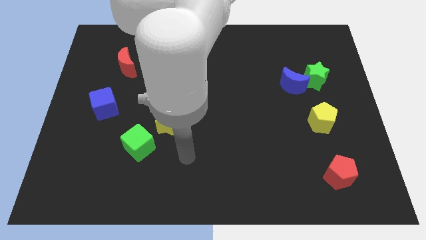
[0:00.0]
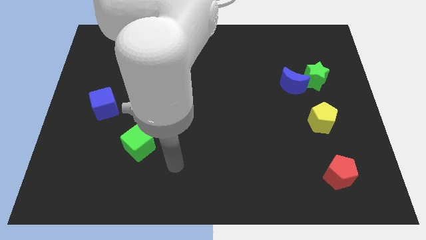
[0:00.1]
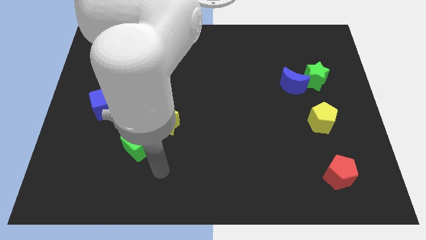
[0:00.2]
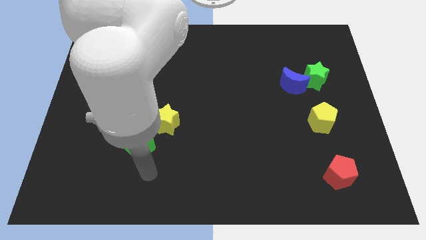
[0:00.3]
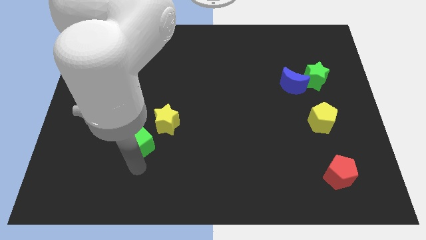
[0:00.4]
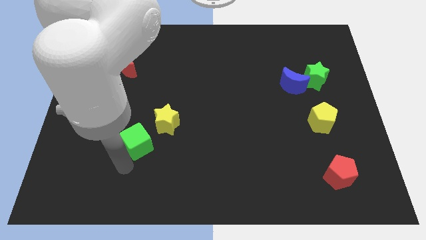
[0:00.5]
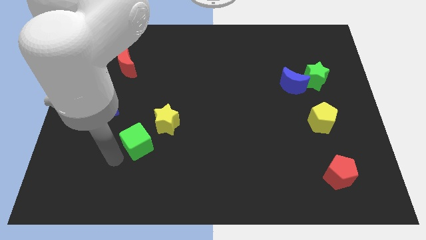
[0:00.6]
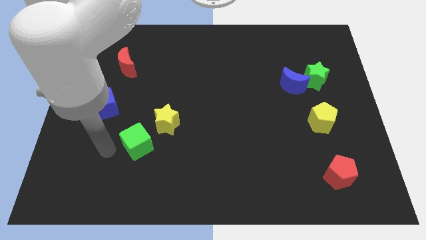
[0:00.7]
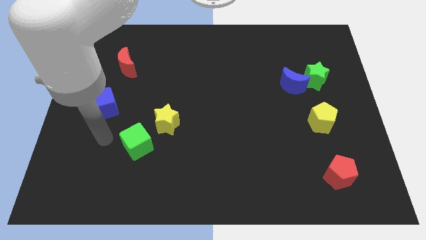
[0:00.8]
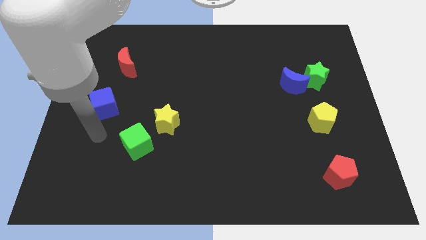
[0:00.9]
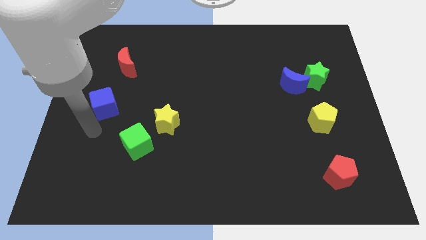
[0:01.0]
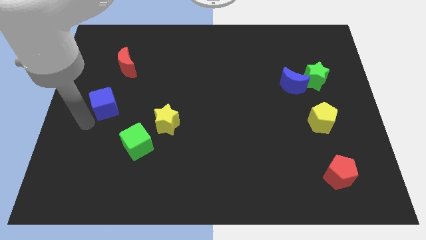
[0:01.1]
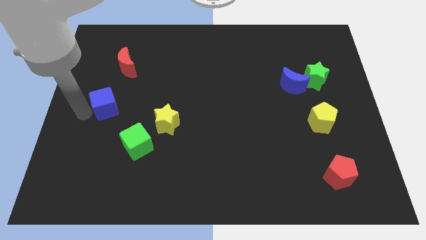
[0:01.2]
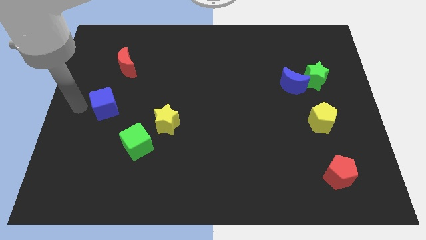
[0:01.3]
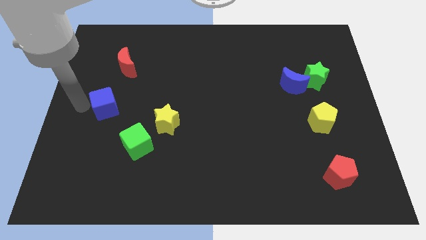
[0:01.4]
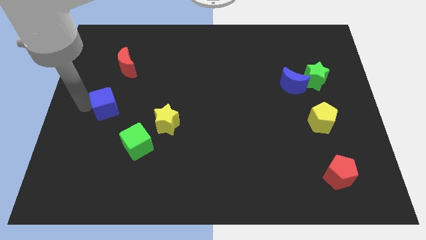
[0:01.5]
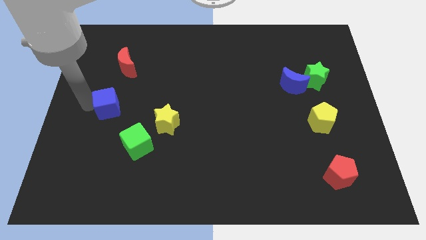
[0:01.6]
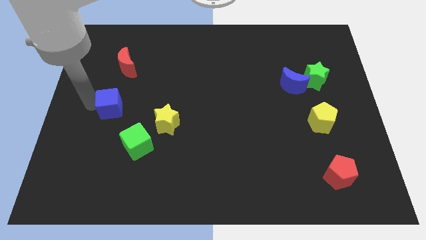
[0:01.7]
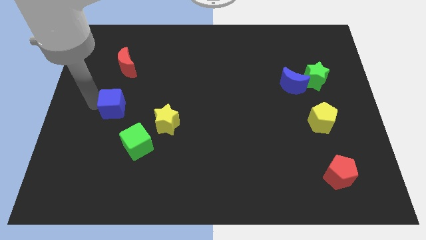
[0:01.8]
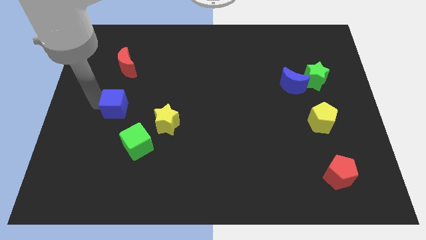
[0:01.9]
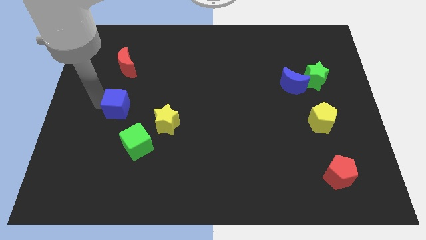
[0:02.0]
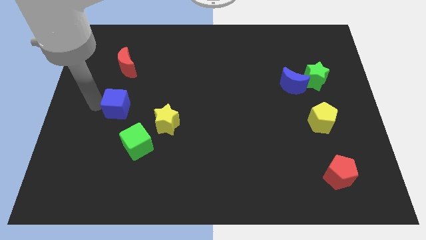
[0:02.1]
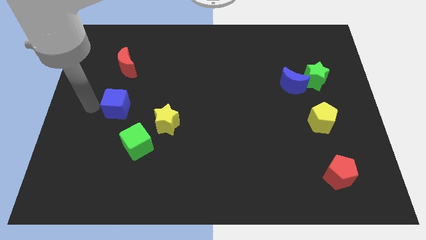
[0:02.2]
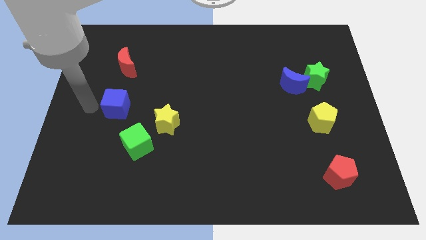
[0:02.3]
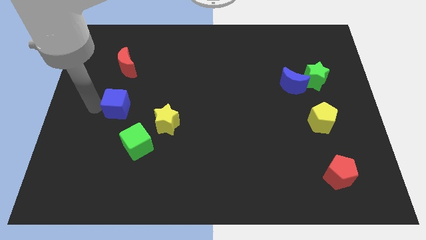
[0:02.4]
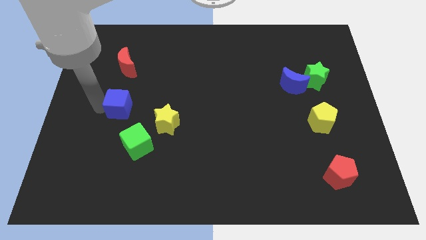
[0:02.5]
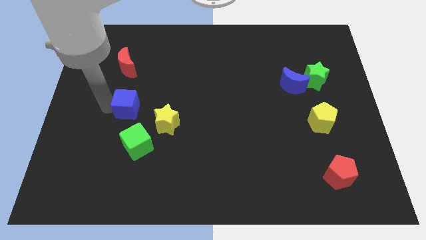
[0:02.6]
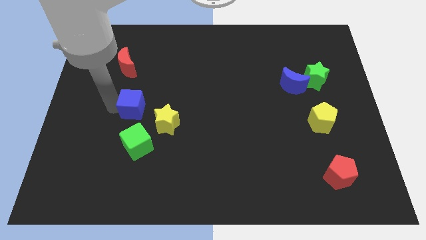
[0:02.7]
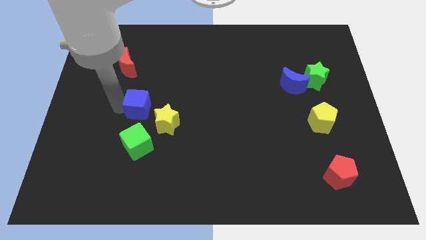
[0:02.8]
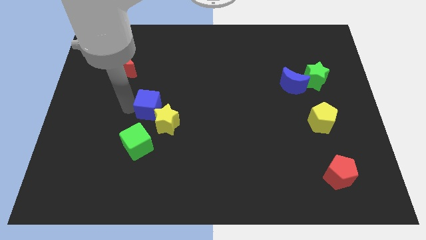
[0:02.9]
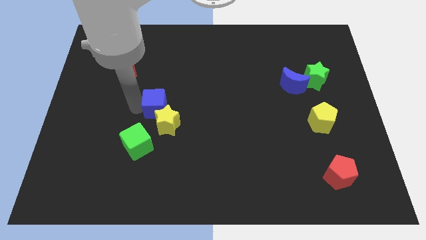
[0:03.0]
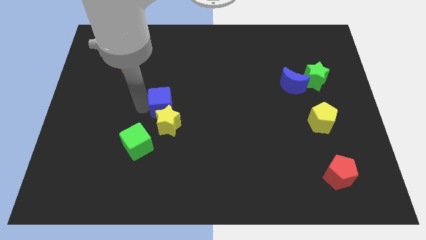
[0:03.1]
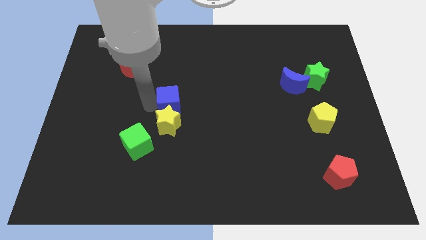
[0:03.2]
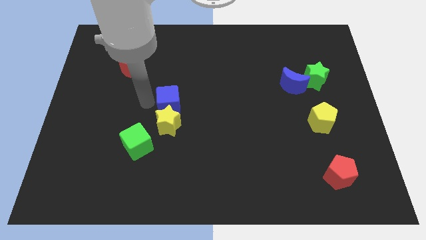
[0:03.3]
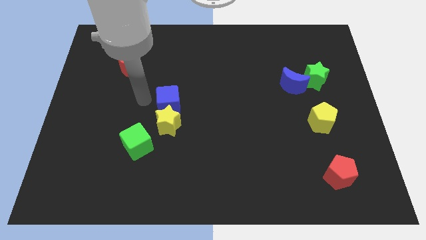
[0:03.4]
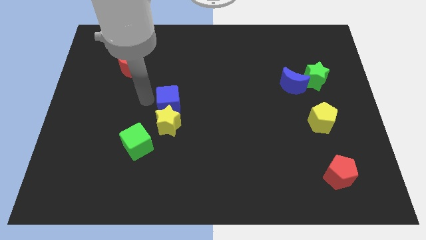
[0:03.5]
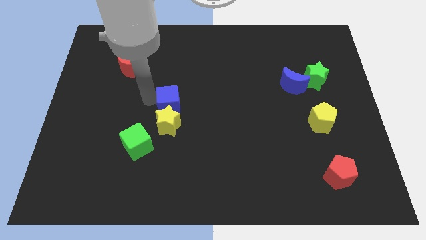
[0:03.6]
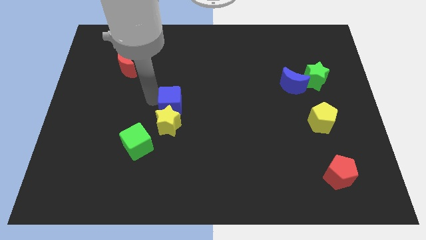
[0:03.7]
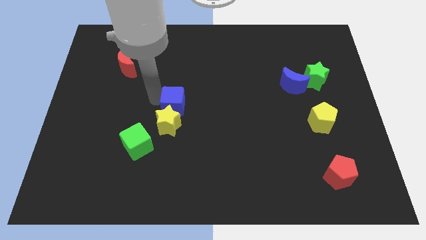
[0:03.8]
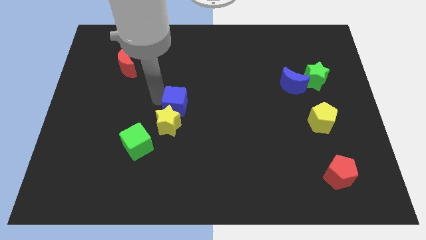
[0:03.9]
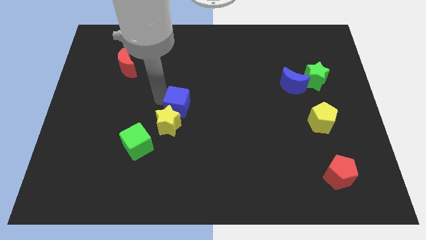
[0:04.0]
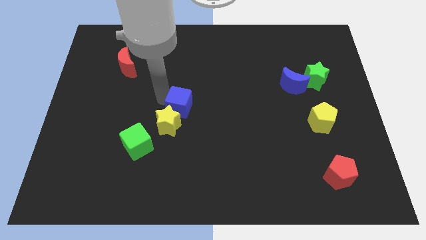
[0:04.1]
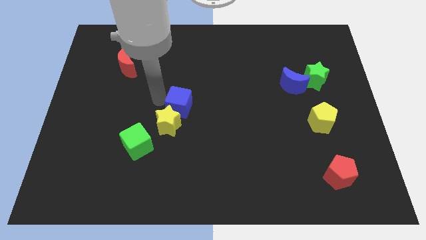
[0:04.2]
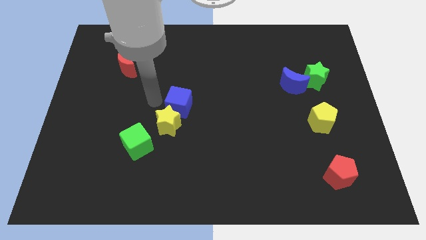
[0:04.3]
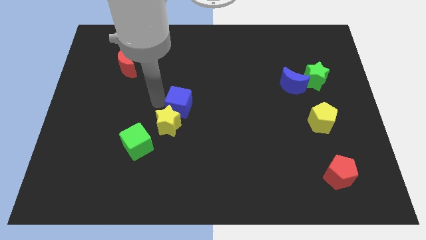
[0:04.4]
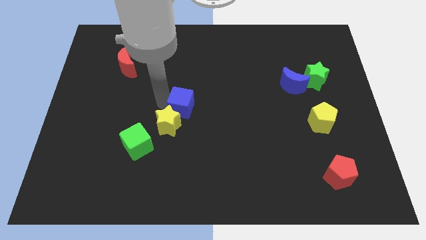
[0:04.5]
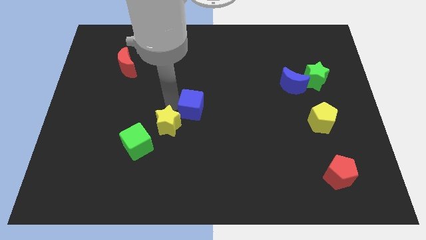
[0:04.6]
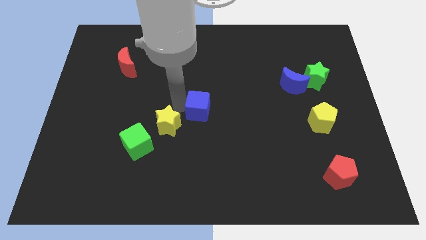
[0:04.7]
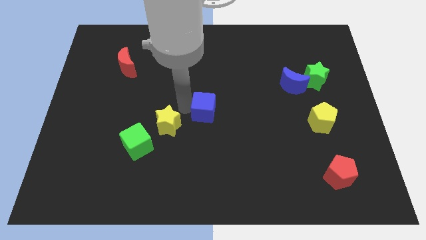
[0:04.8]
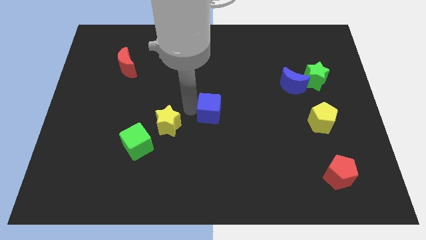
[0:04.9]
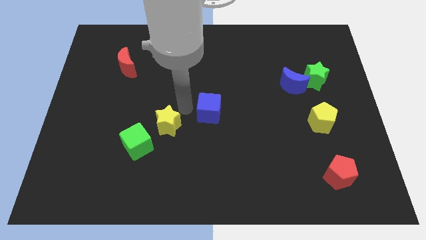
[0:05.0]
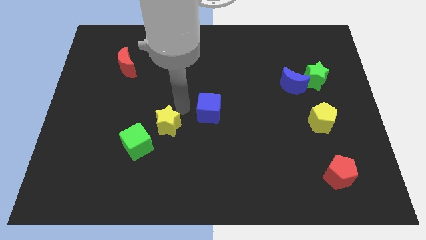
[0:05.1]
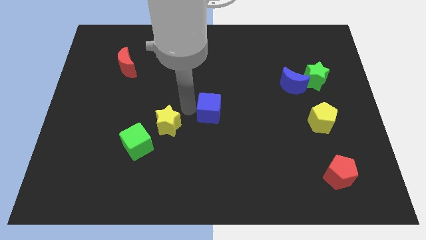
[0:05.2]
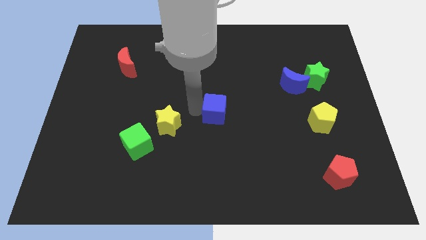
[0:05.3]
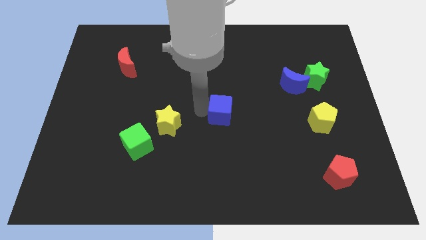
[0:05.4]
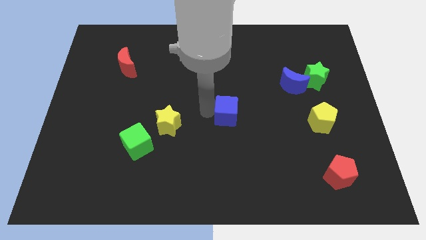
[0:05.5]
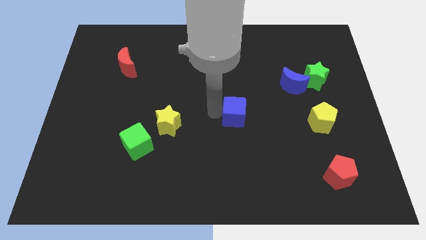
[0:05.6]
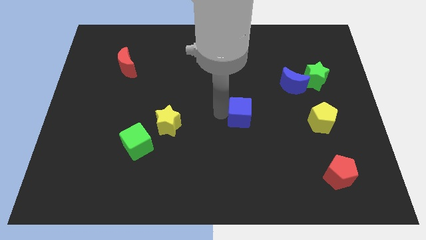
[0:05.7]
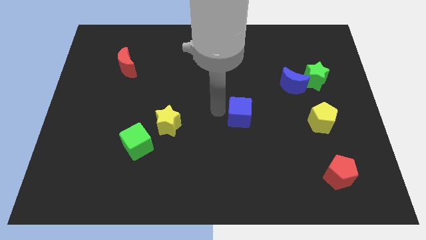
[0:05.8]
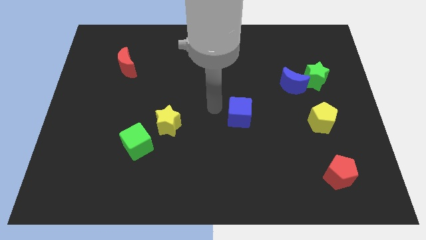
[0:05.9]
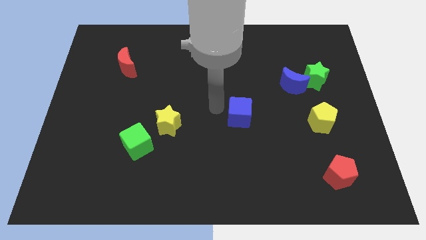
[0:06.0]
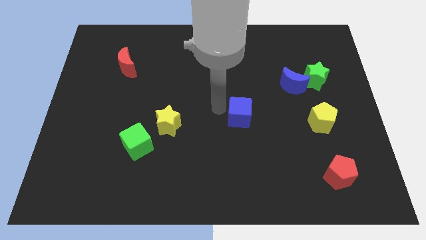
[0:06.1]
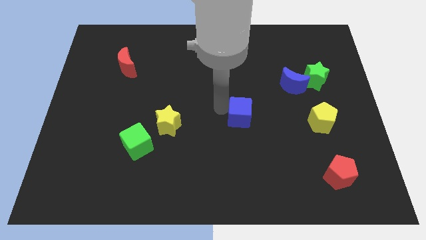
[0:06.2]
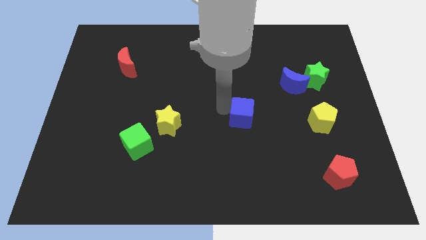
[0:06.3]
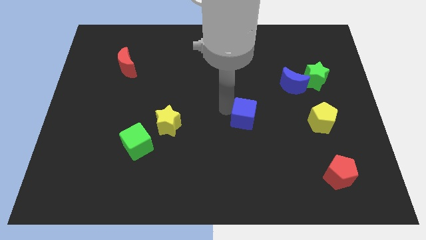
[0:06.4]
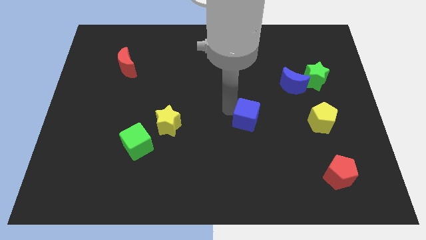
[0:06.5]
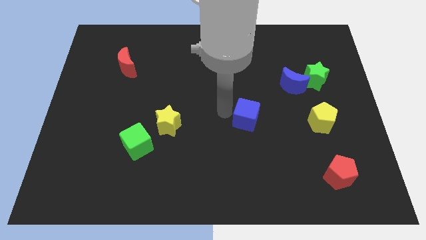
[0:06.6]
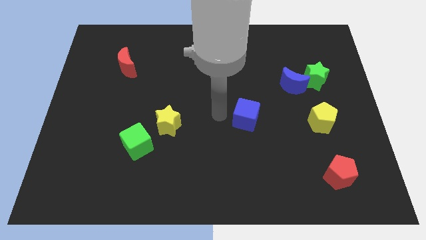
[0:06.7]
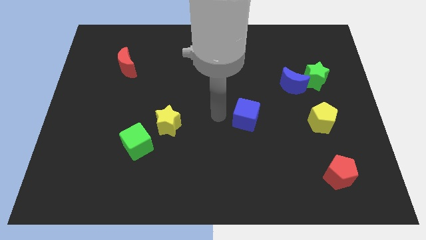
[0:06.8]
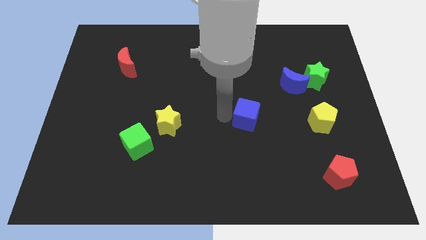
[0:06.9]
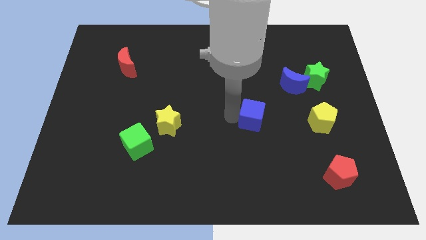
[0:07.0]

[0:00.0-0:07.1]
push the blue cube to the left of the yellow pentagon

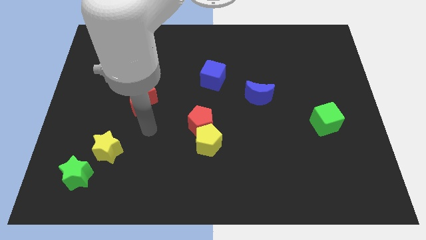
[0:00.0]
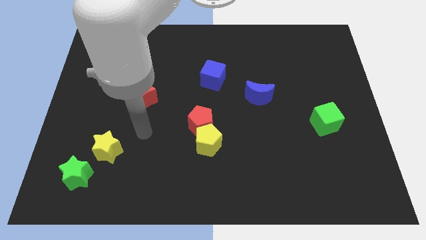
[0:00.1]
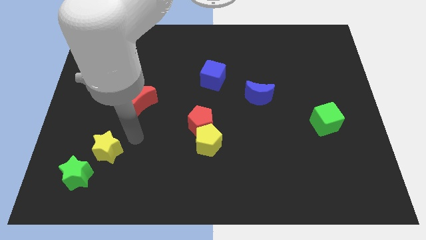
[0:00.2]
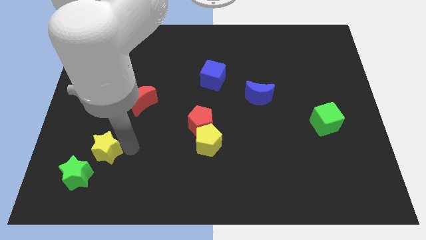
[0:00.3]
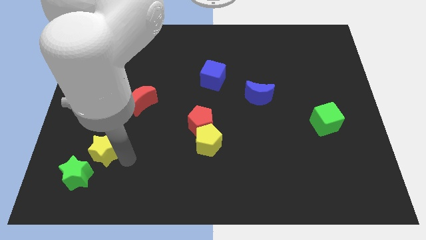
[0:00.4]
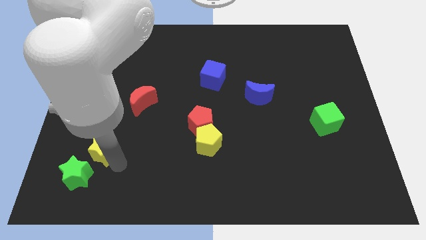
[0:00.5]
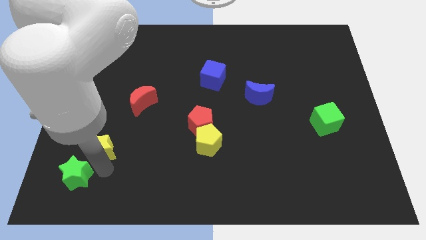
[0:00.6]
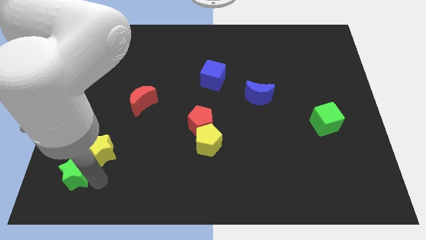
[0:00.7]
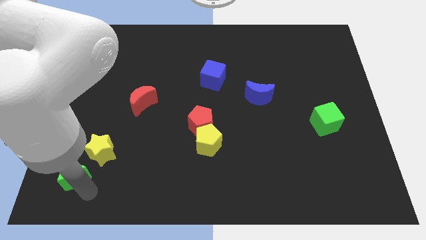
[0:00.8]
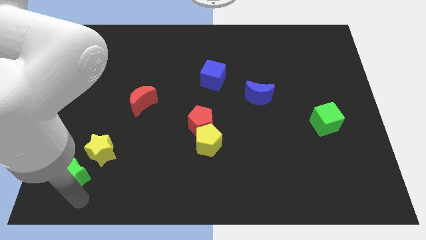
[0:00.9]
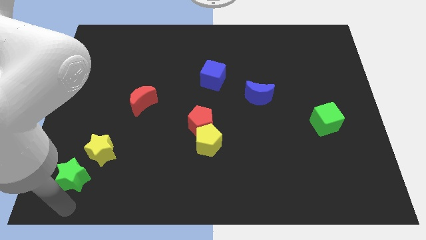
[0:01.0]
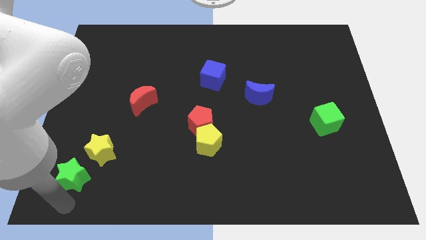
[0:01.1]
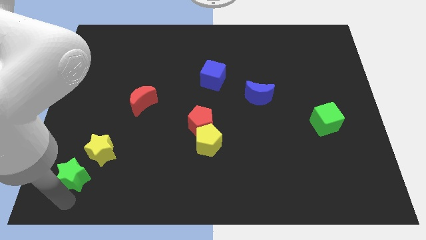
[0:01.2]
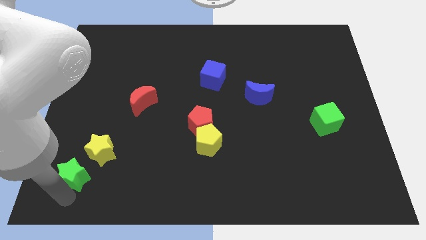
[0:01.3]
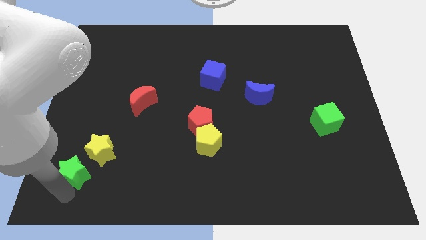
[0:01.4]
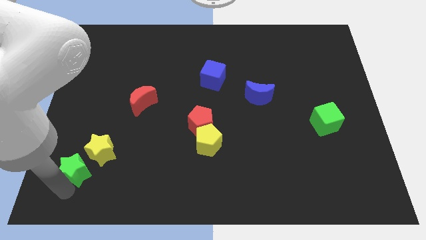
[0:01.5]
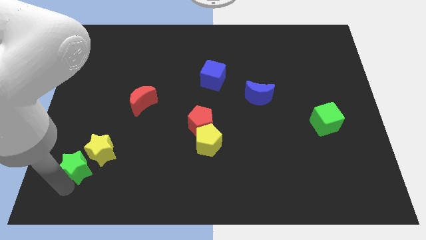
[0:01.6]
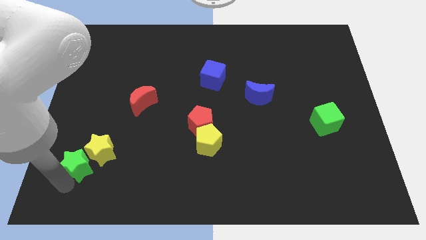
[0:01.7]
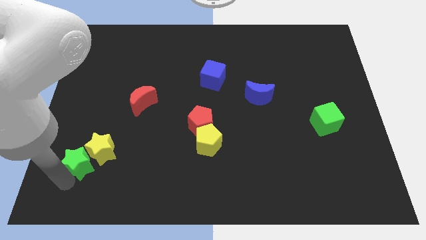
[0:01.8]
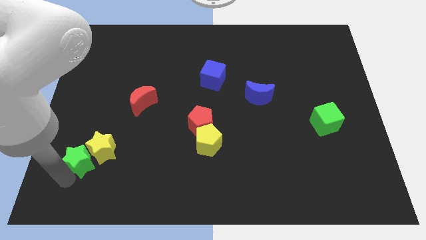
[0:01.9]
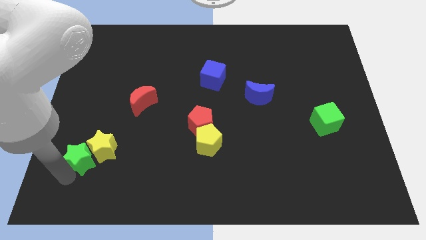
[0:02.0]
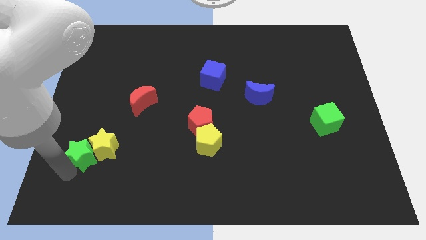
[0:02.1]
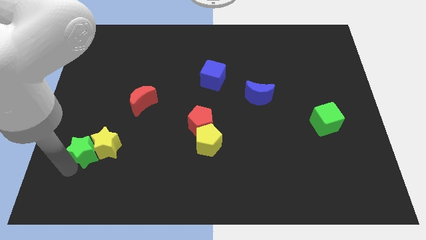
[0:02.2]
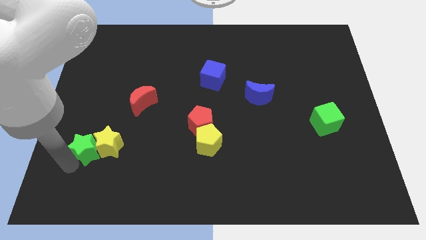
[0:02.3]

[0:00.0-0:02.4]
move the green star to the top left of the yellow star
